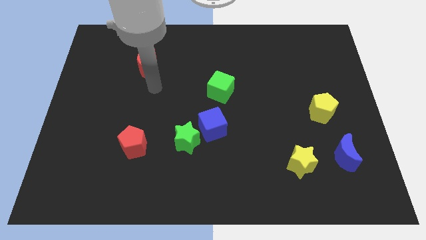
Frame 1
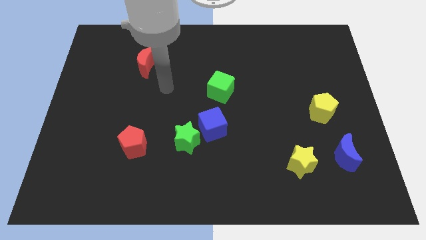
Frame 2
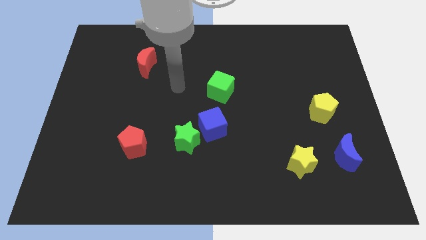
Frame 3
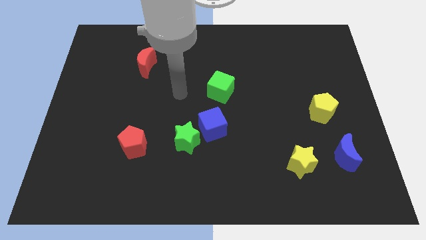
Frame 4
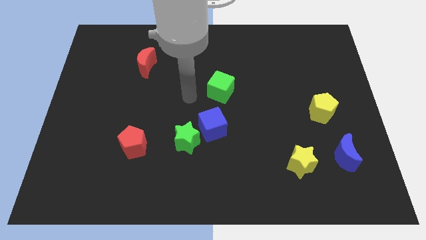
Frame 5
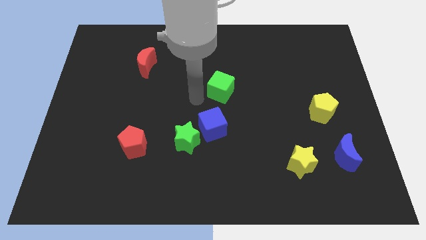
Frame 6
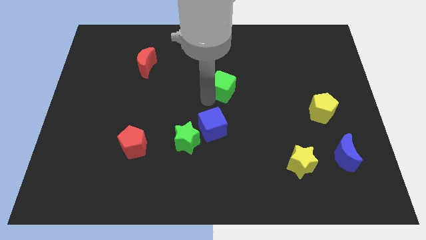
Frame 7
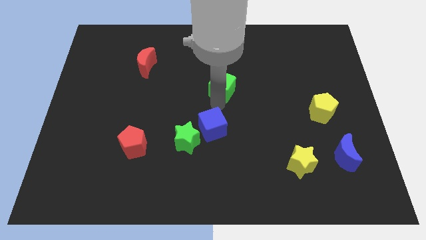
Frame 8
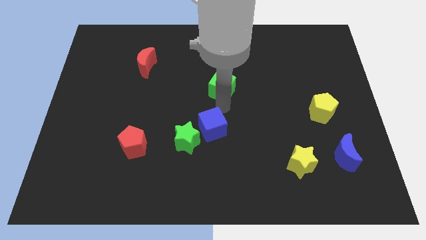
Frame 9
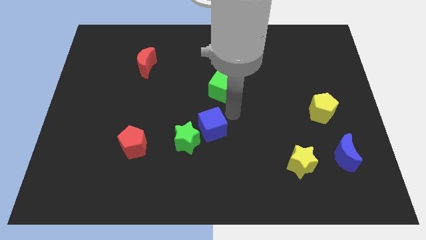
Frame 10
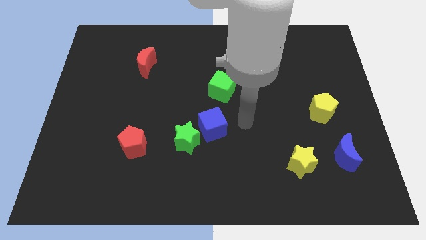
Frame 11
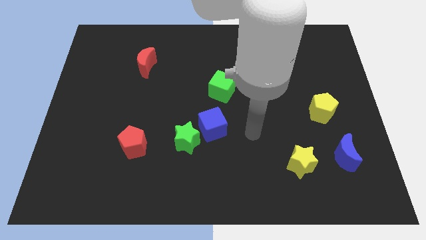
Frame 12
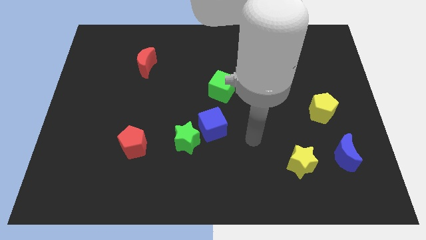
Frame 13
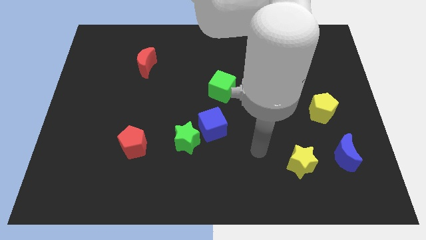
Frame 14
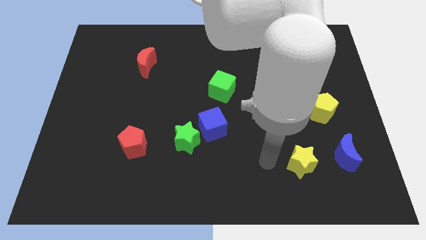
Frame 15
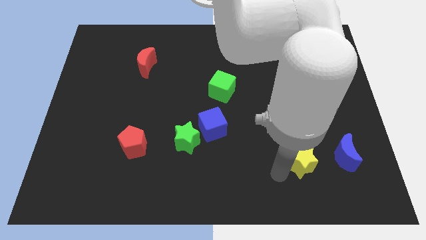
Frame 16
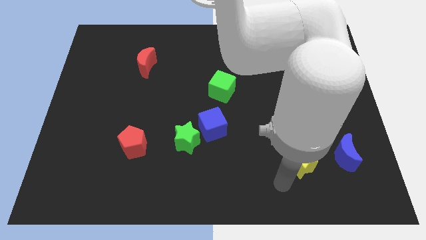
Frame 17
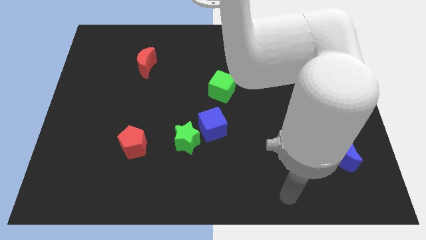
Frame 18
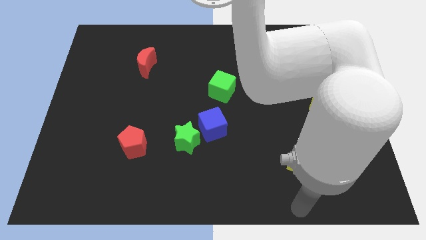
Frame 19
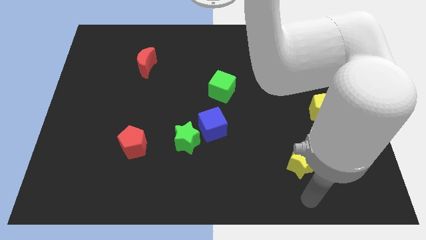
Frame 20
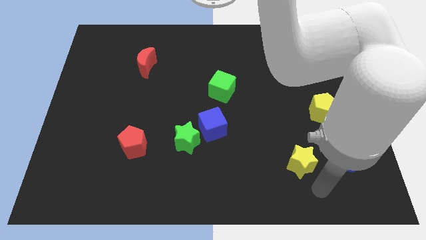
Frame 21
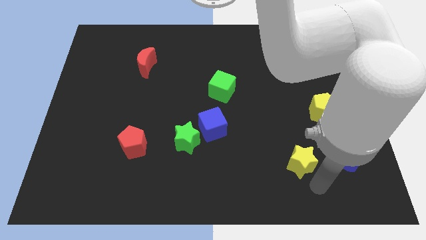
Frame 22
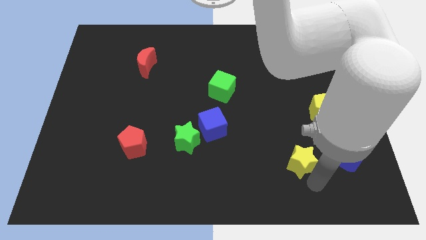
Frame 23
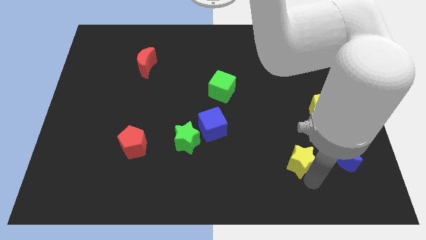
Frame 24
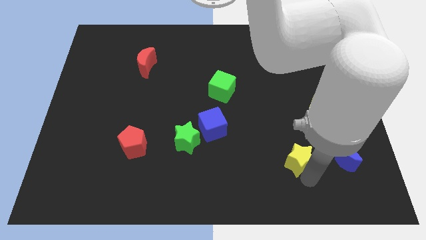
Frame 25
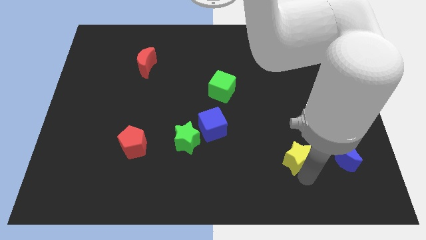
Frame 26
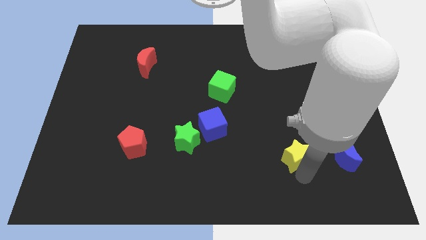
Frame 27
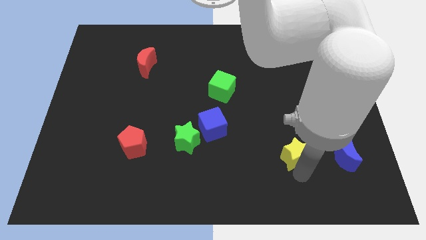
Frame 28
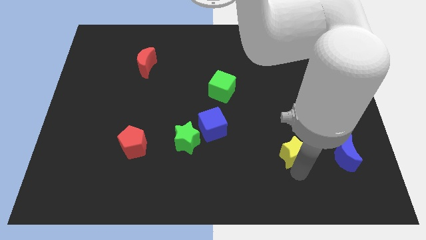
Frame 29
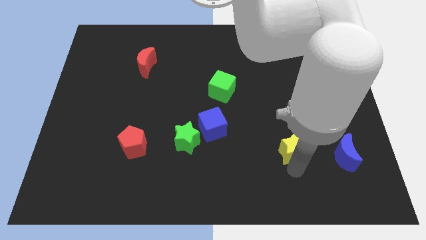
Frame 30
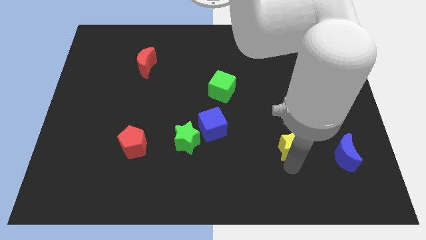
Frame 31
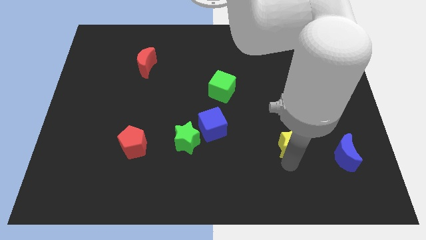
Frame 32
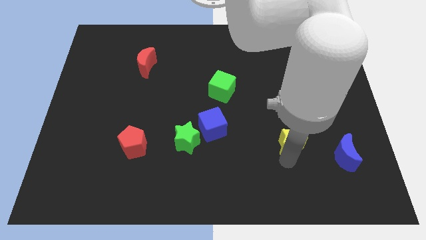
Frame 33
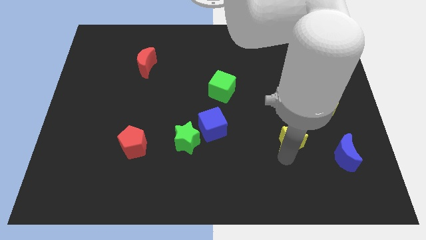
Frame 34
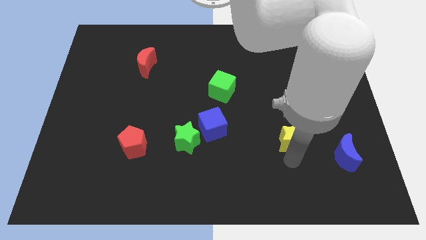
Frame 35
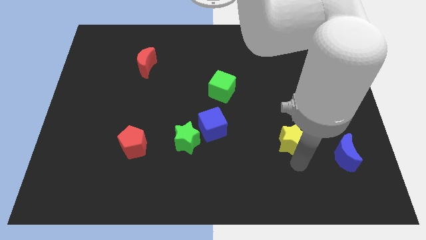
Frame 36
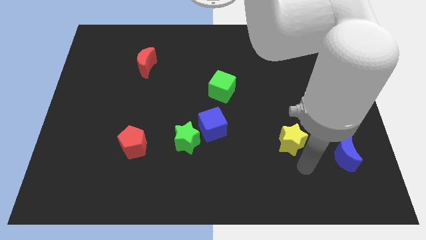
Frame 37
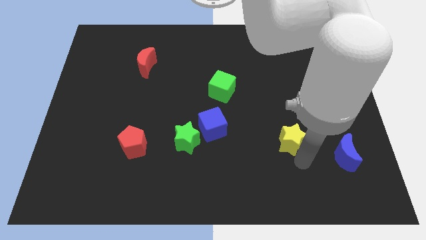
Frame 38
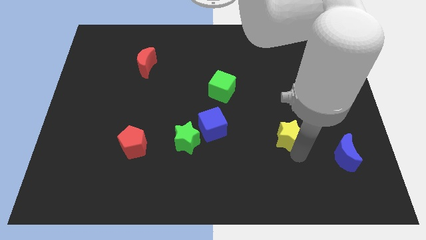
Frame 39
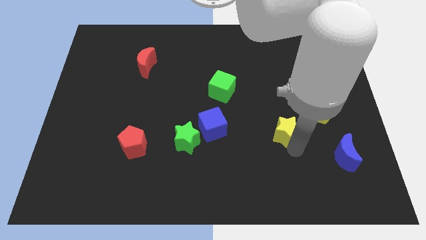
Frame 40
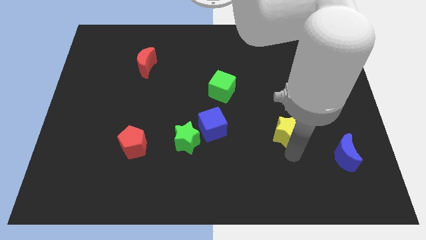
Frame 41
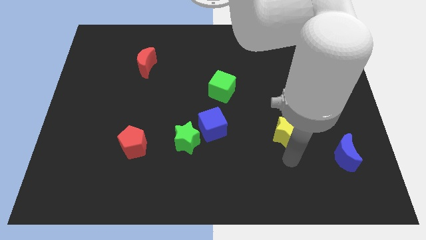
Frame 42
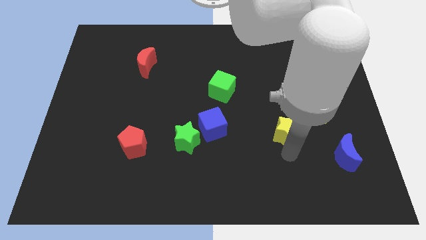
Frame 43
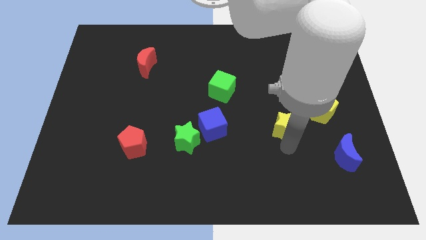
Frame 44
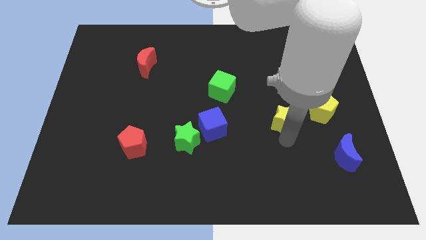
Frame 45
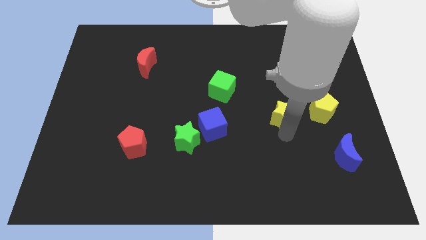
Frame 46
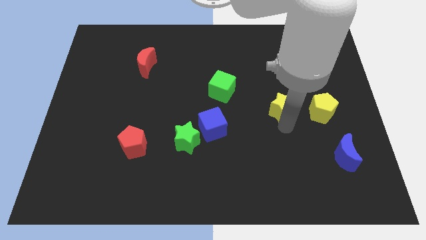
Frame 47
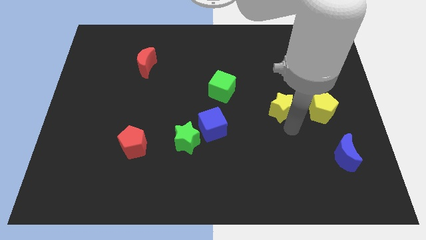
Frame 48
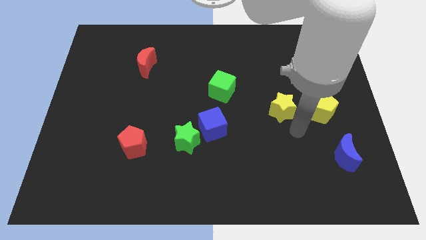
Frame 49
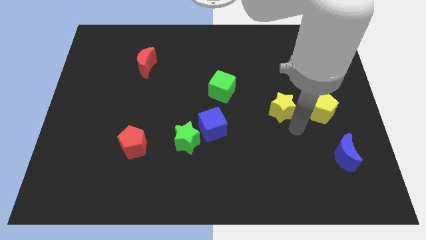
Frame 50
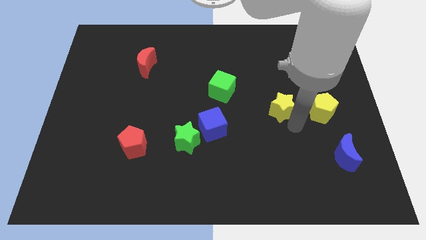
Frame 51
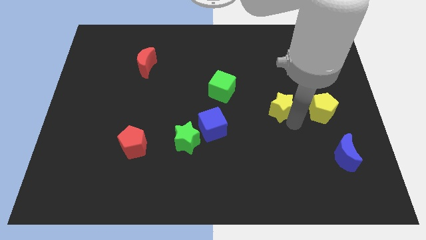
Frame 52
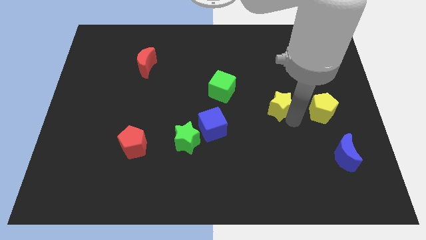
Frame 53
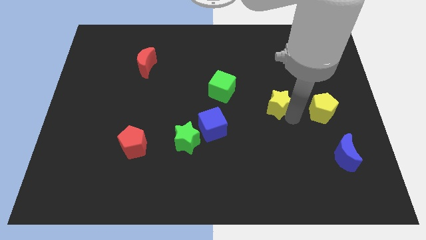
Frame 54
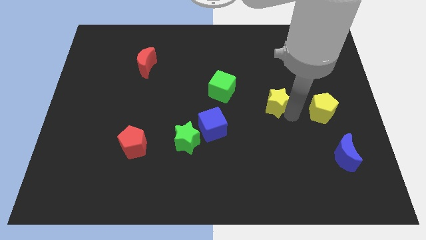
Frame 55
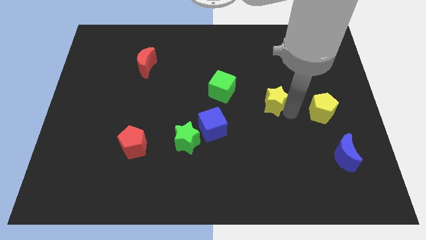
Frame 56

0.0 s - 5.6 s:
slide the yellow star to the right side of the green cube

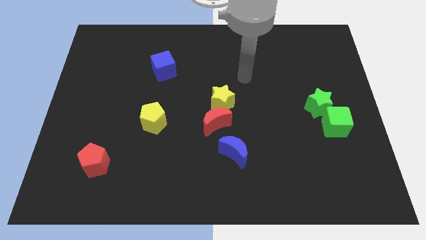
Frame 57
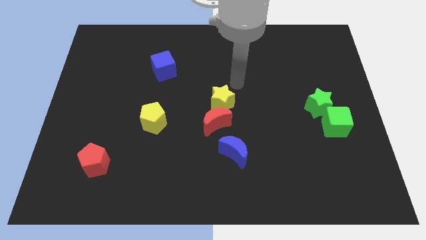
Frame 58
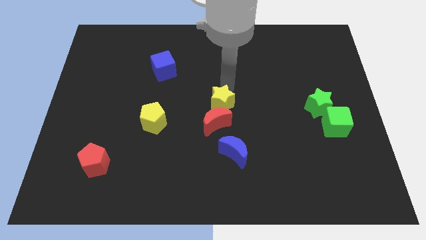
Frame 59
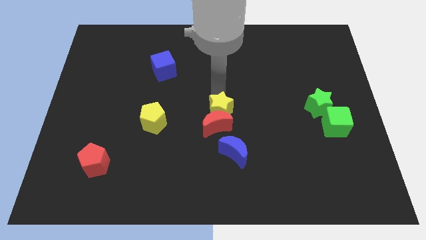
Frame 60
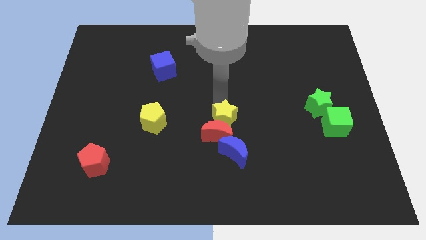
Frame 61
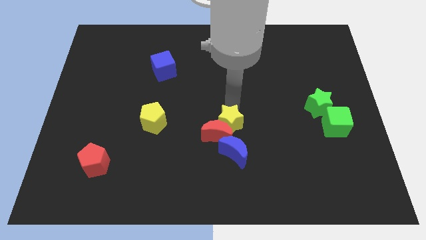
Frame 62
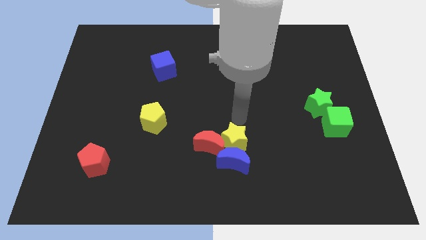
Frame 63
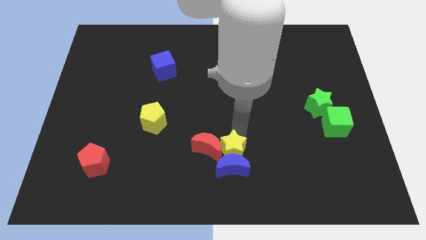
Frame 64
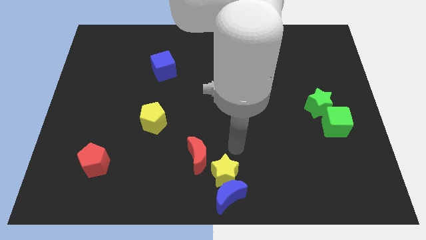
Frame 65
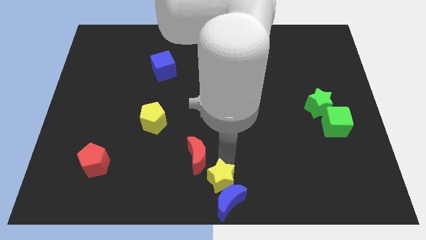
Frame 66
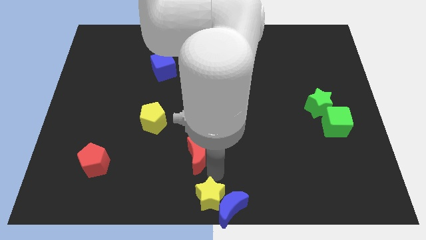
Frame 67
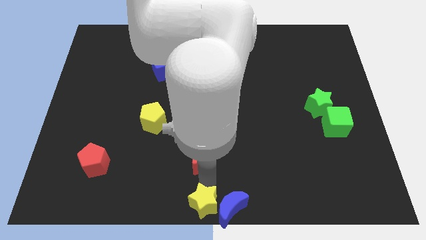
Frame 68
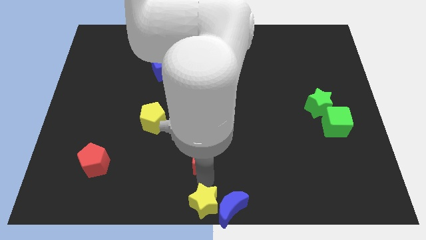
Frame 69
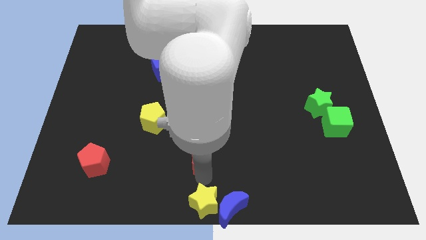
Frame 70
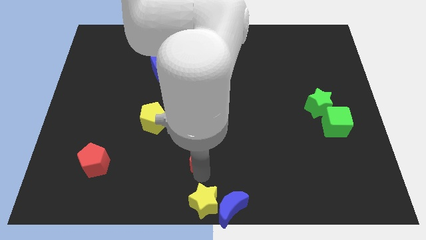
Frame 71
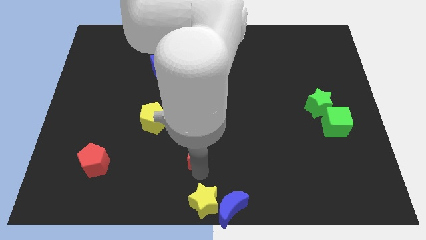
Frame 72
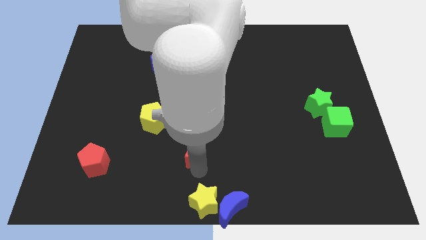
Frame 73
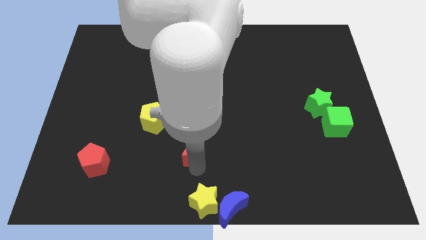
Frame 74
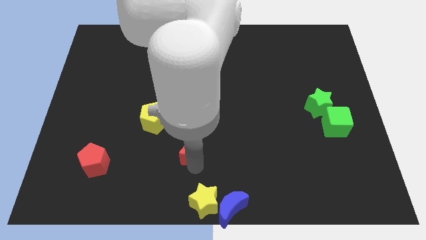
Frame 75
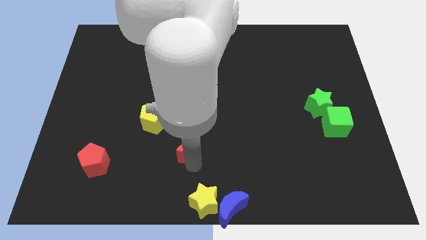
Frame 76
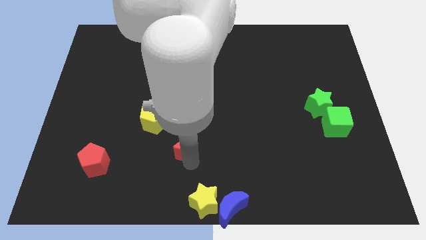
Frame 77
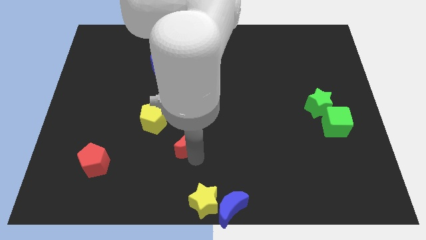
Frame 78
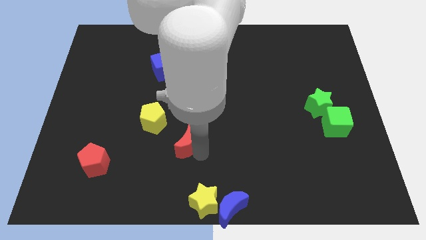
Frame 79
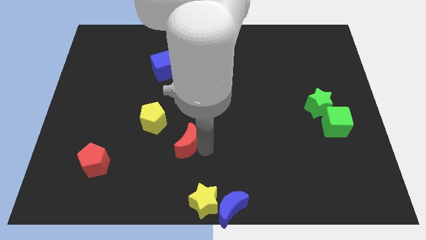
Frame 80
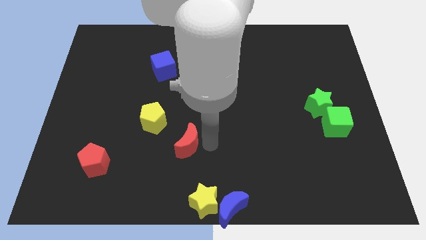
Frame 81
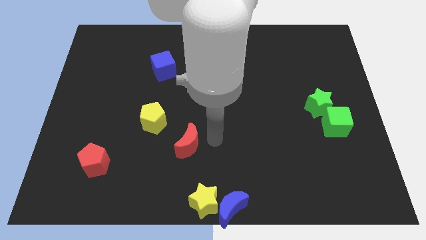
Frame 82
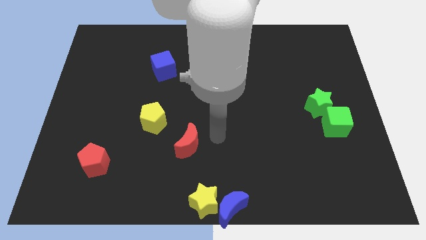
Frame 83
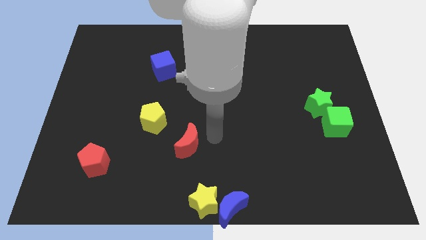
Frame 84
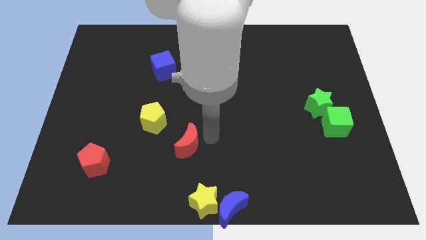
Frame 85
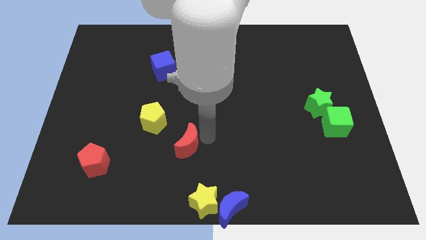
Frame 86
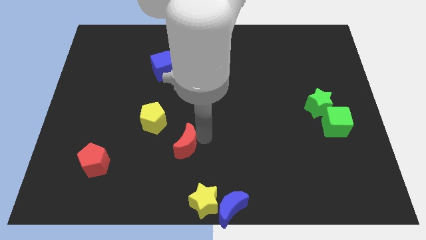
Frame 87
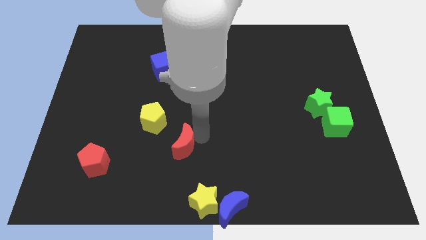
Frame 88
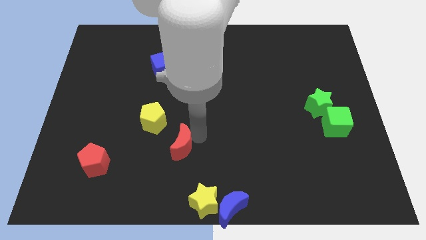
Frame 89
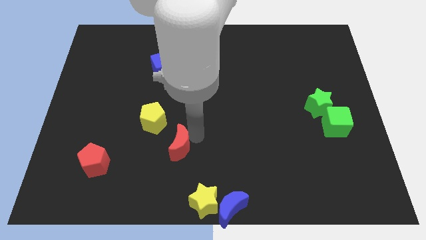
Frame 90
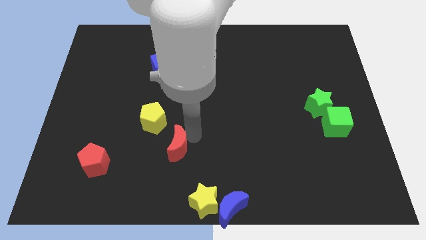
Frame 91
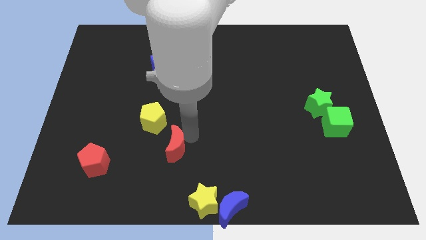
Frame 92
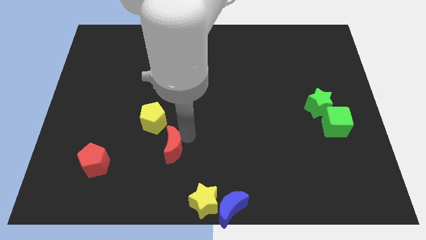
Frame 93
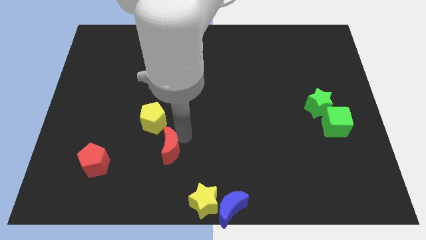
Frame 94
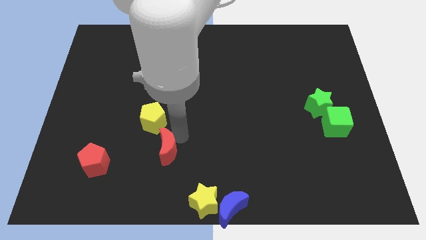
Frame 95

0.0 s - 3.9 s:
put the red moon to the right side of the red pentagon
